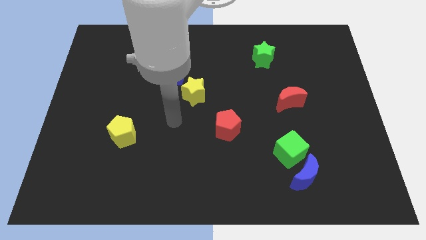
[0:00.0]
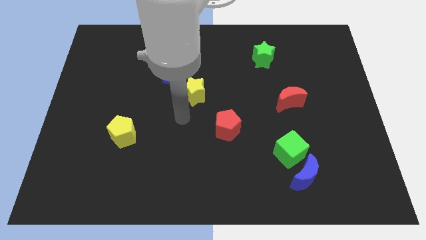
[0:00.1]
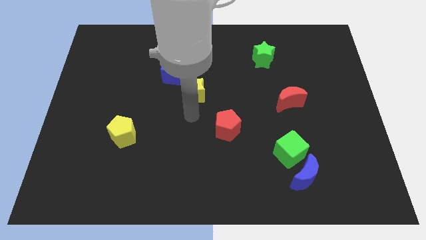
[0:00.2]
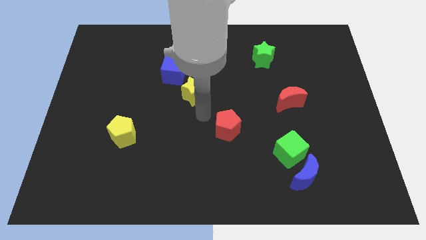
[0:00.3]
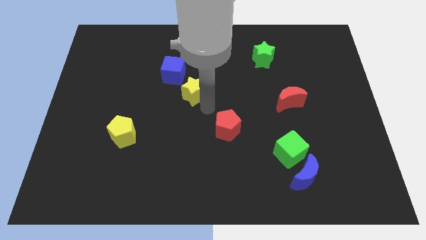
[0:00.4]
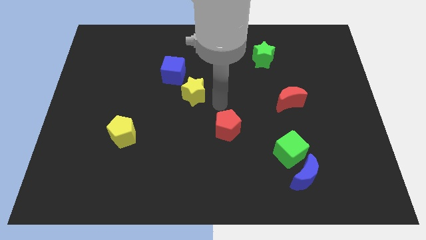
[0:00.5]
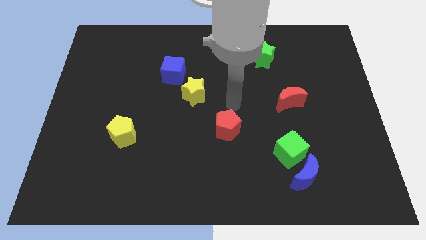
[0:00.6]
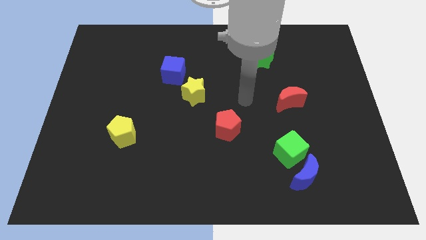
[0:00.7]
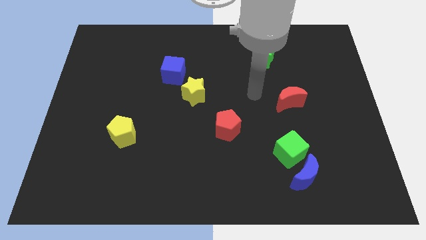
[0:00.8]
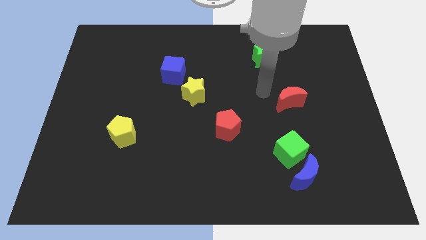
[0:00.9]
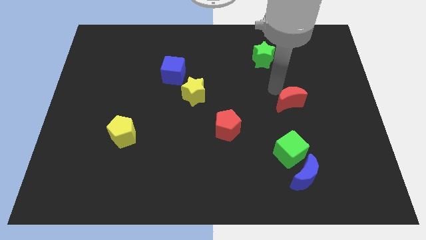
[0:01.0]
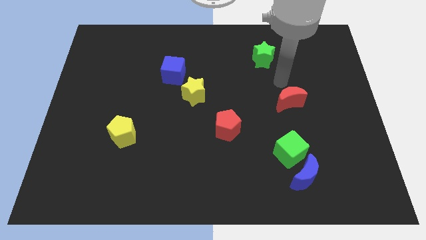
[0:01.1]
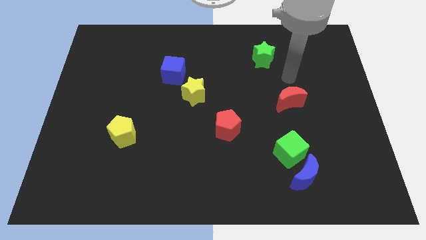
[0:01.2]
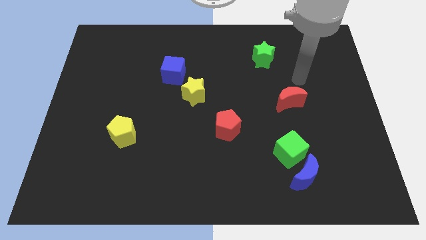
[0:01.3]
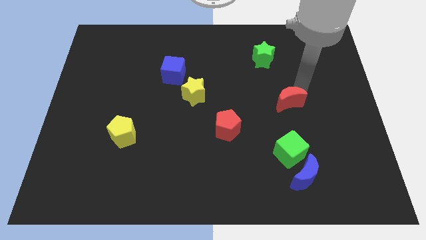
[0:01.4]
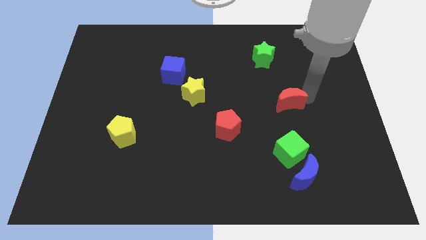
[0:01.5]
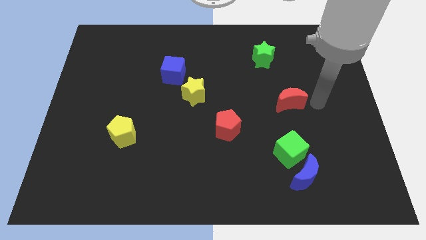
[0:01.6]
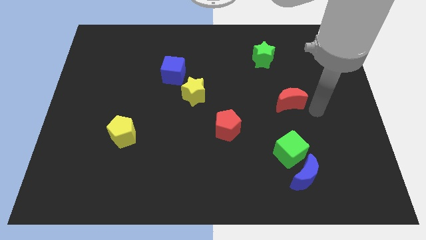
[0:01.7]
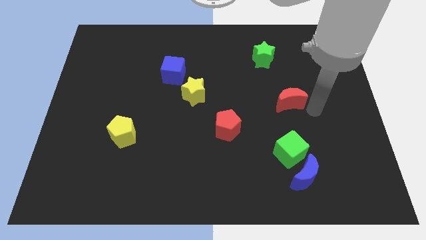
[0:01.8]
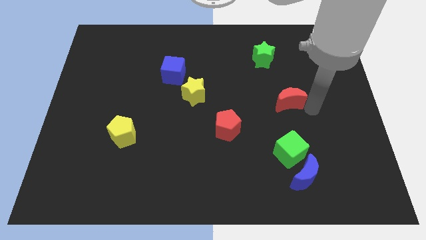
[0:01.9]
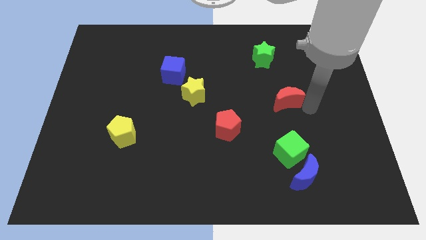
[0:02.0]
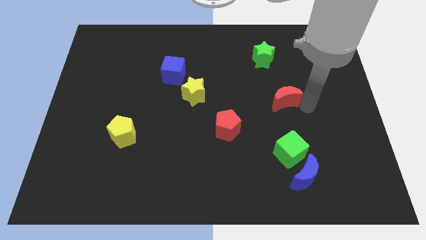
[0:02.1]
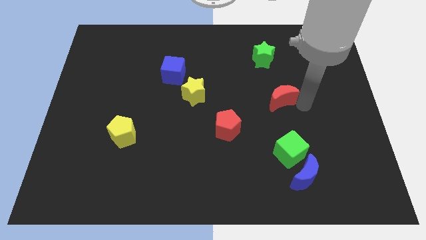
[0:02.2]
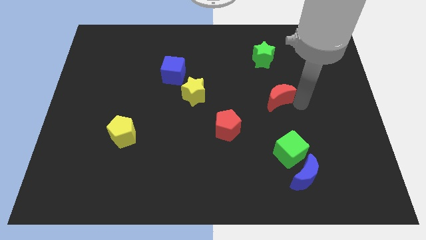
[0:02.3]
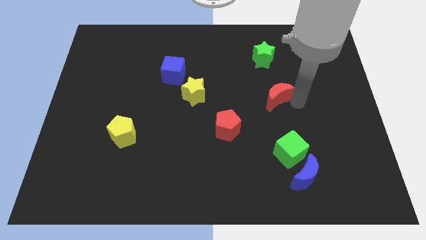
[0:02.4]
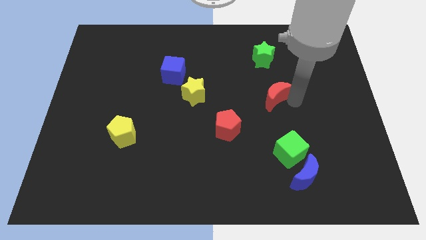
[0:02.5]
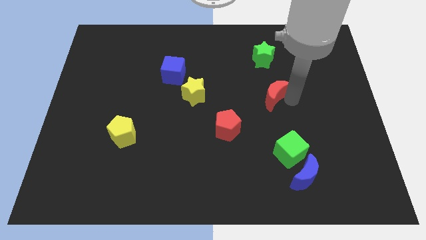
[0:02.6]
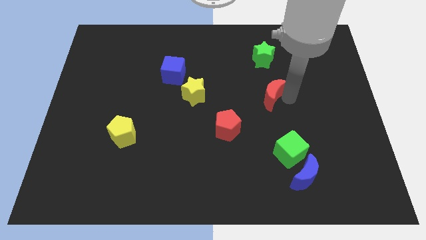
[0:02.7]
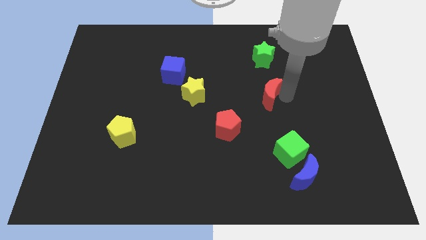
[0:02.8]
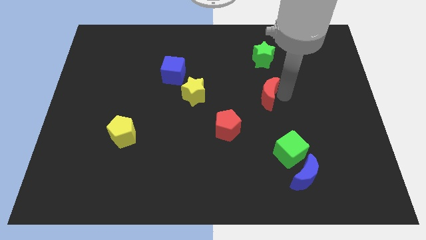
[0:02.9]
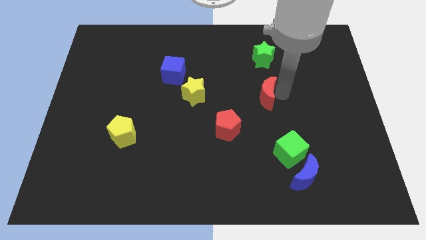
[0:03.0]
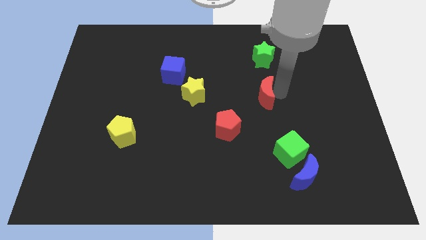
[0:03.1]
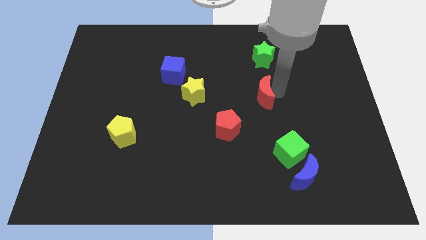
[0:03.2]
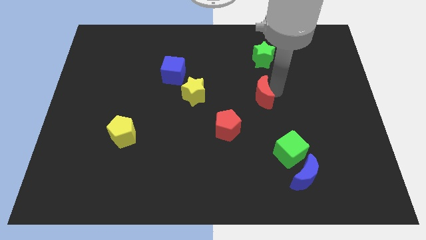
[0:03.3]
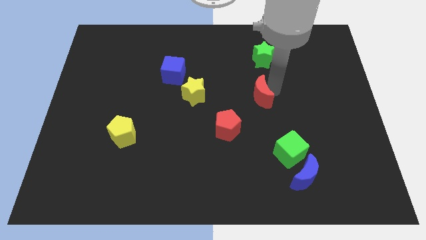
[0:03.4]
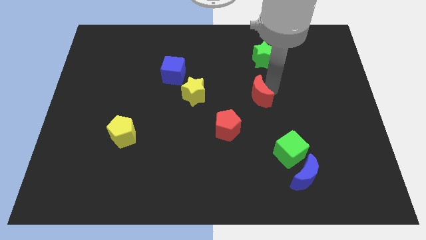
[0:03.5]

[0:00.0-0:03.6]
push the red moon left a bit

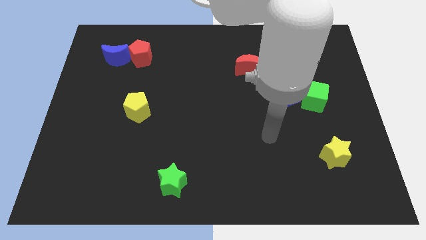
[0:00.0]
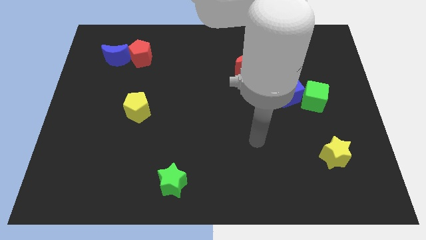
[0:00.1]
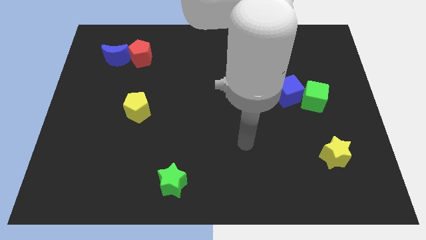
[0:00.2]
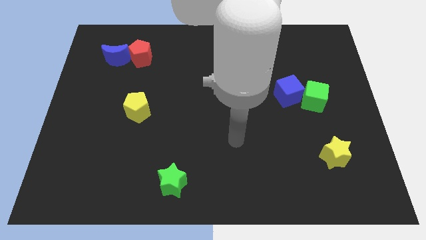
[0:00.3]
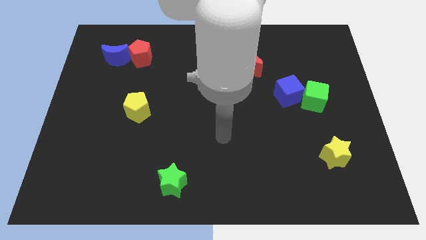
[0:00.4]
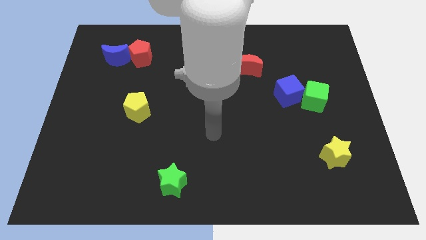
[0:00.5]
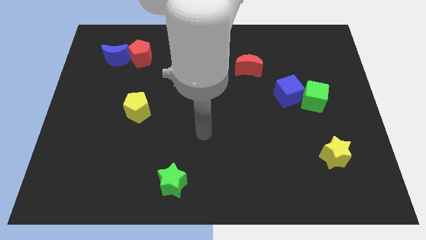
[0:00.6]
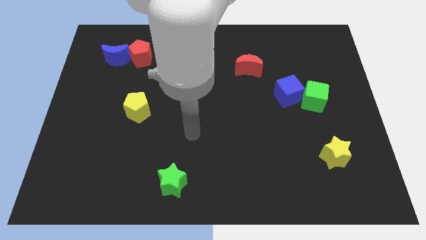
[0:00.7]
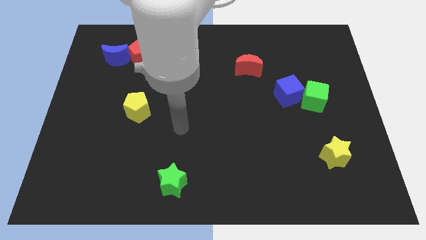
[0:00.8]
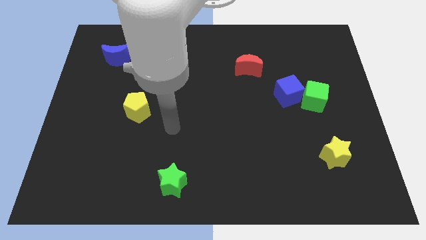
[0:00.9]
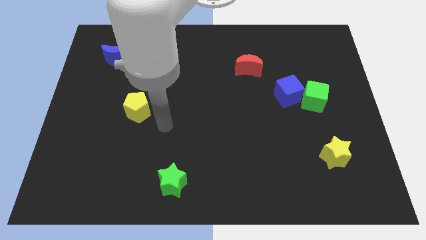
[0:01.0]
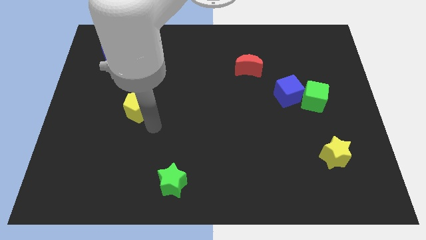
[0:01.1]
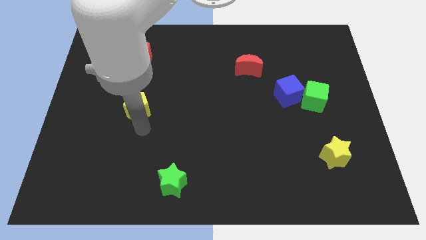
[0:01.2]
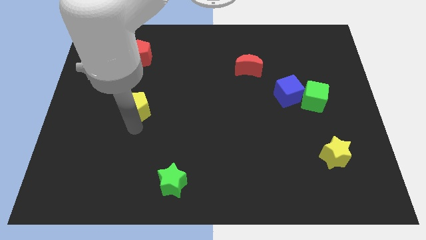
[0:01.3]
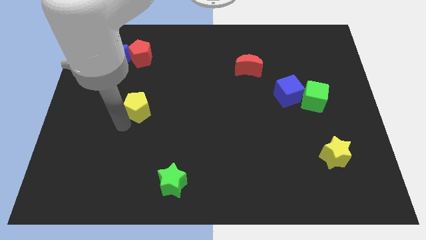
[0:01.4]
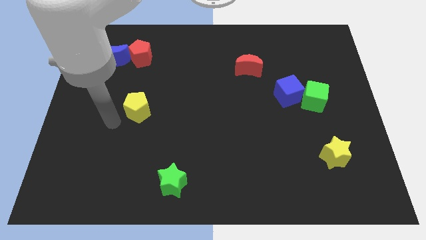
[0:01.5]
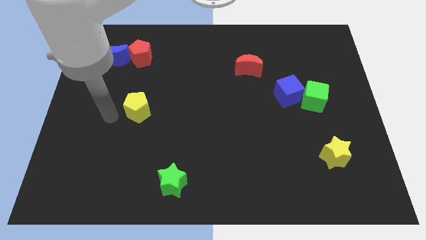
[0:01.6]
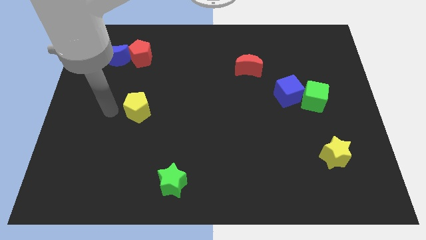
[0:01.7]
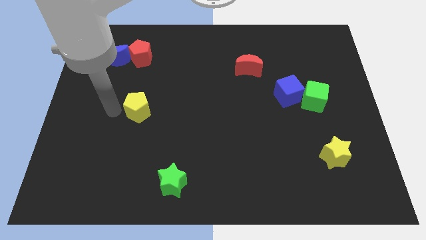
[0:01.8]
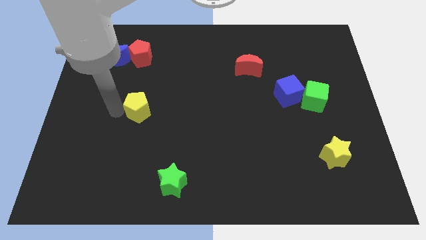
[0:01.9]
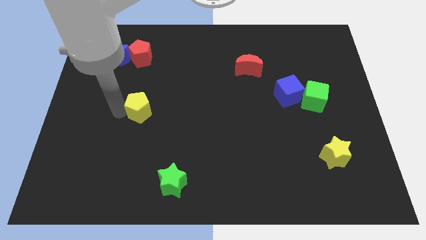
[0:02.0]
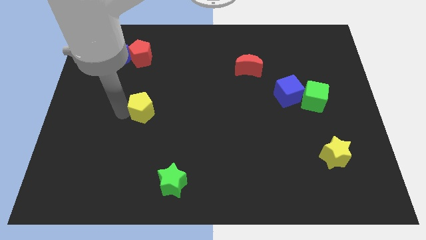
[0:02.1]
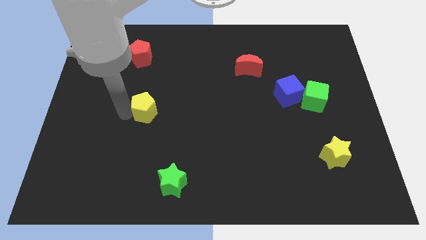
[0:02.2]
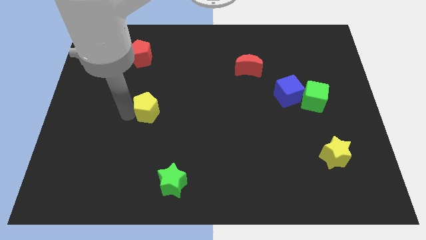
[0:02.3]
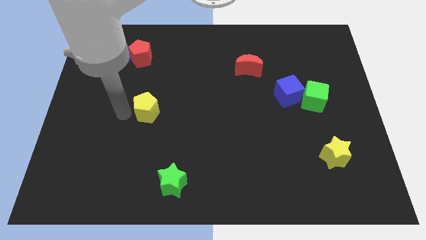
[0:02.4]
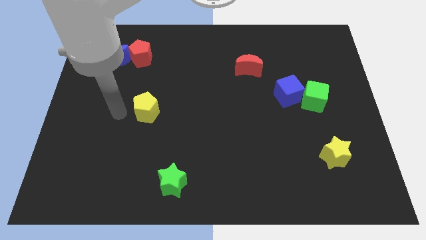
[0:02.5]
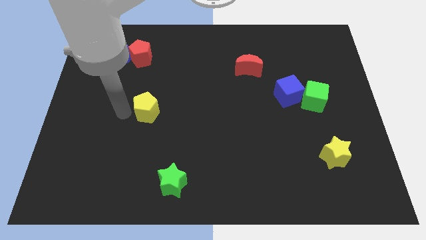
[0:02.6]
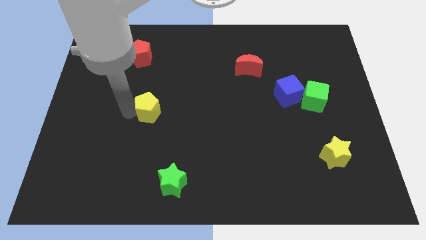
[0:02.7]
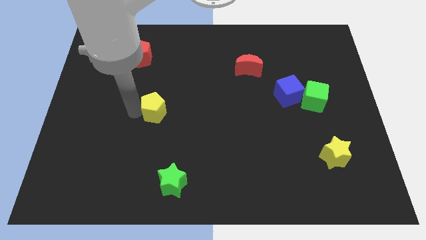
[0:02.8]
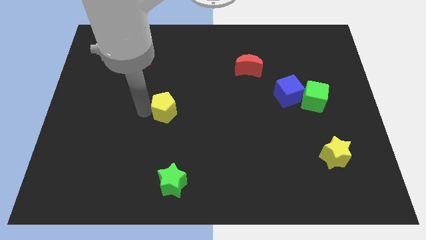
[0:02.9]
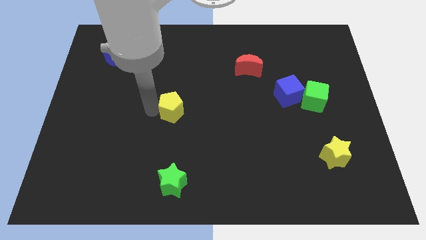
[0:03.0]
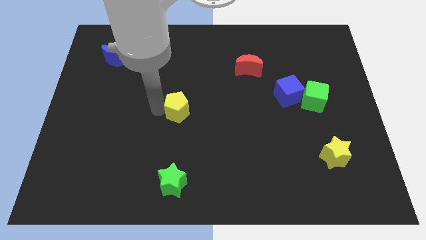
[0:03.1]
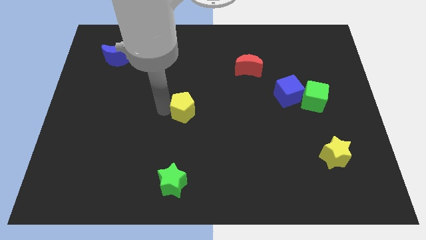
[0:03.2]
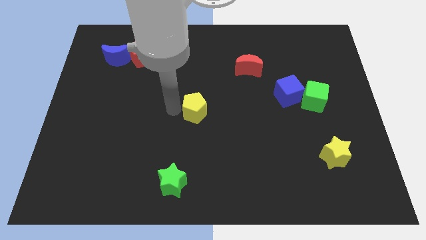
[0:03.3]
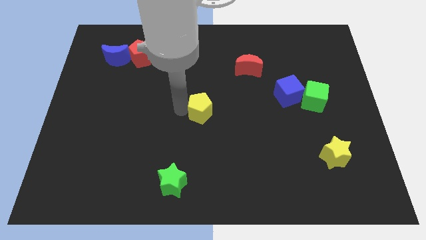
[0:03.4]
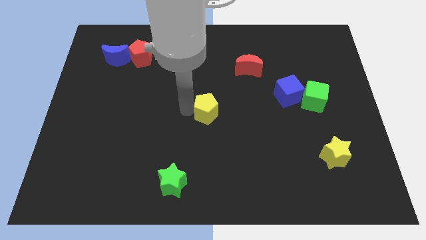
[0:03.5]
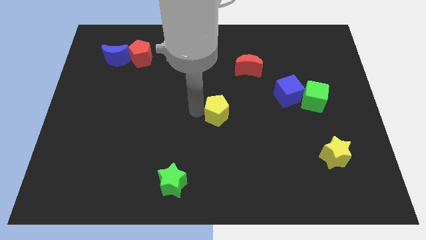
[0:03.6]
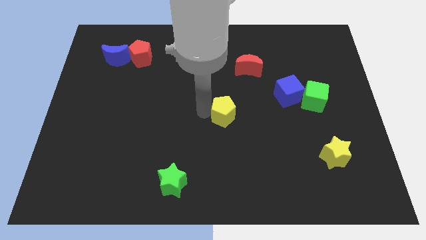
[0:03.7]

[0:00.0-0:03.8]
slide the yellow pentagon to the right

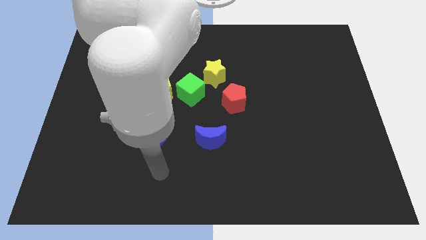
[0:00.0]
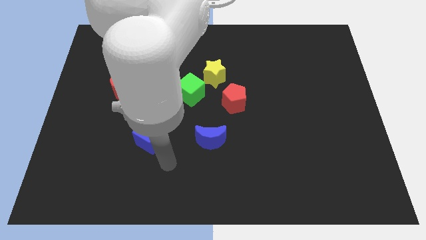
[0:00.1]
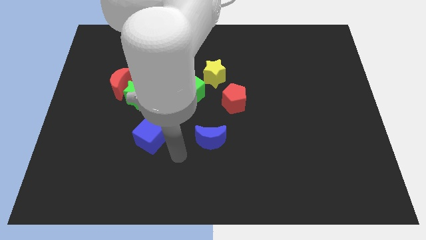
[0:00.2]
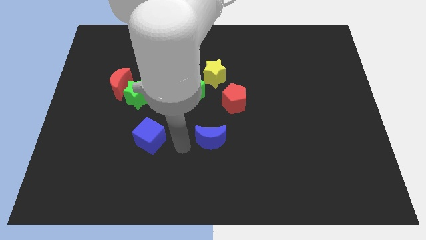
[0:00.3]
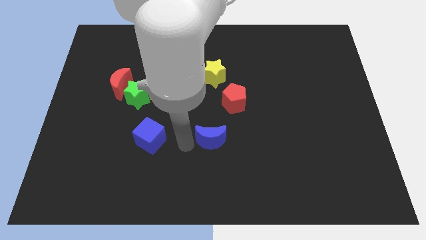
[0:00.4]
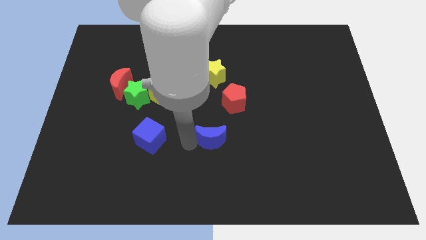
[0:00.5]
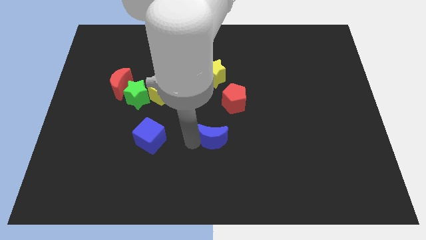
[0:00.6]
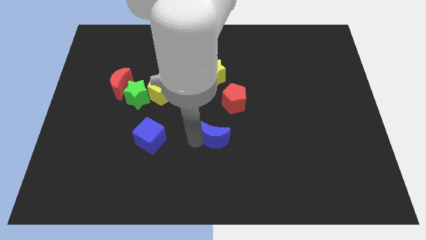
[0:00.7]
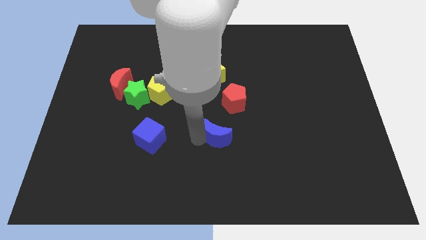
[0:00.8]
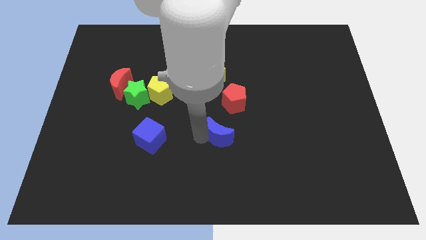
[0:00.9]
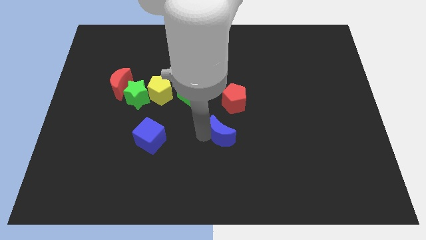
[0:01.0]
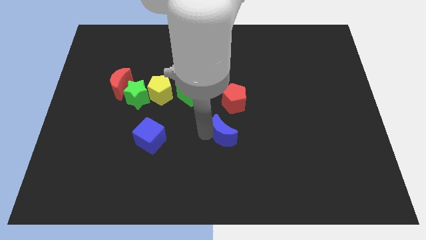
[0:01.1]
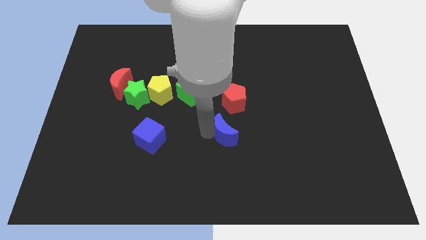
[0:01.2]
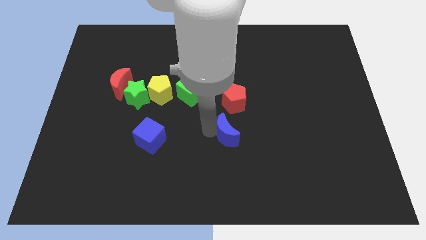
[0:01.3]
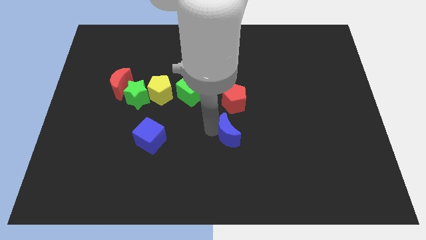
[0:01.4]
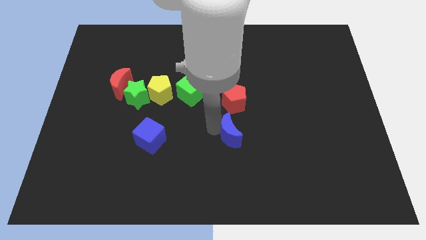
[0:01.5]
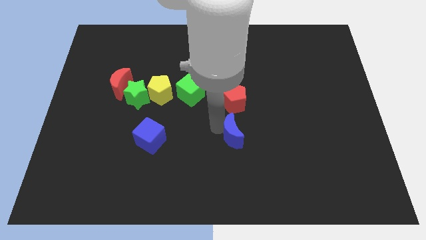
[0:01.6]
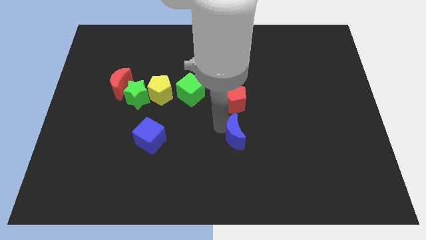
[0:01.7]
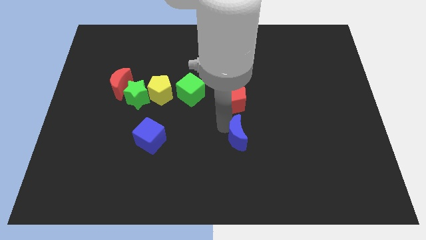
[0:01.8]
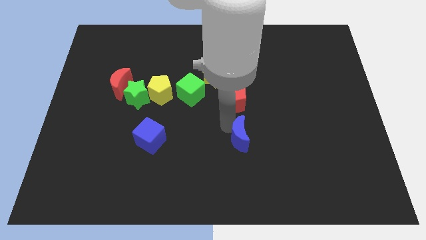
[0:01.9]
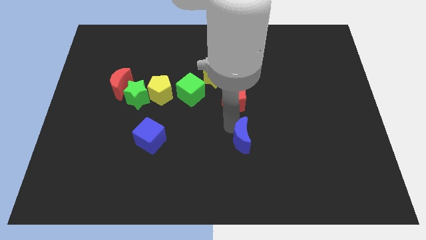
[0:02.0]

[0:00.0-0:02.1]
slide the blue moon right a bit
